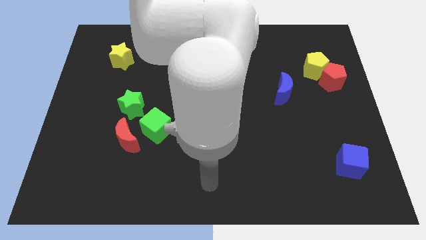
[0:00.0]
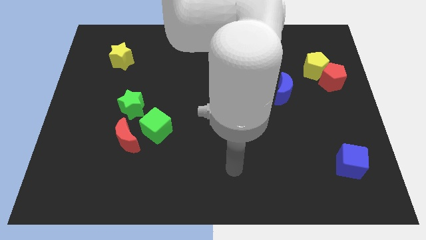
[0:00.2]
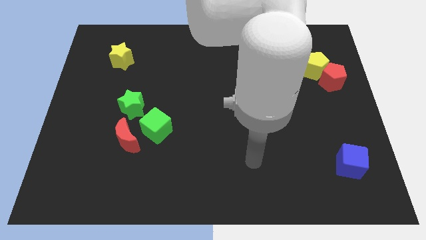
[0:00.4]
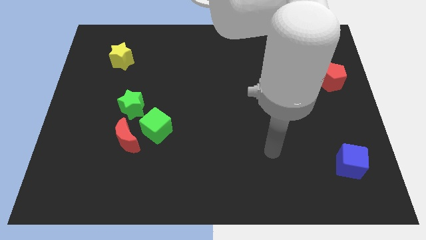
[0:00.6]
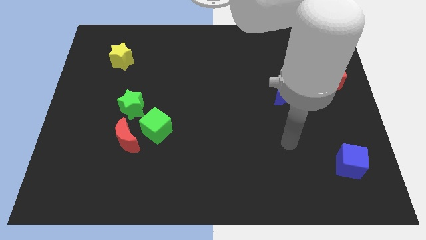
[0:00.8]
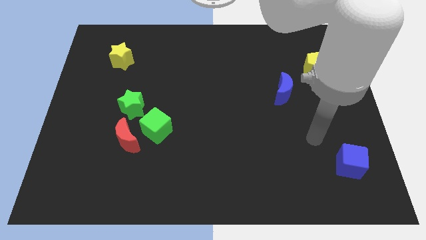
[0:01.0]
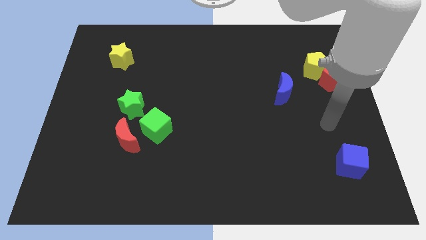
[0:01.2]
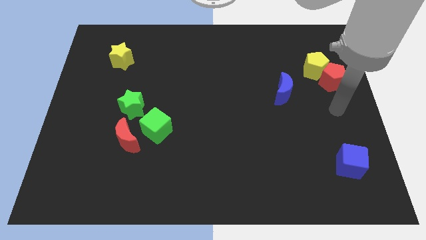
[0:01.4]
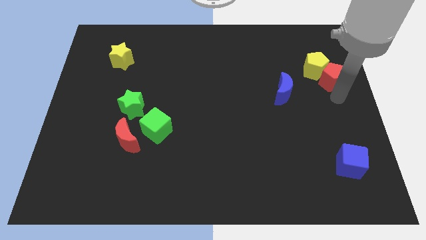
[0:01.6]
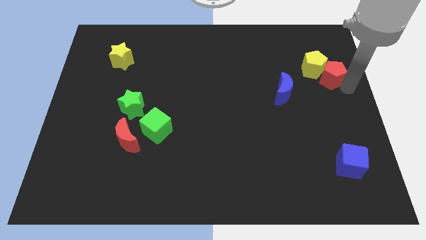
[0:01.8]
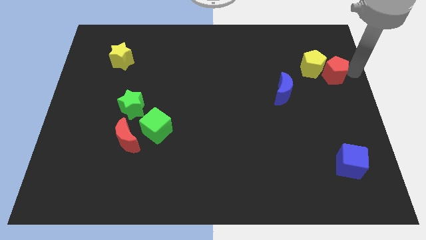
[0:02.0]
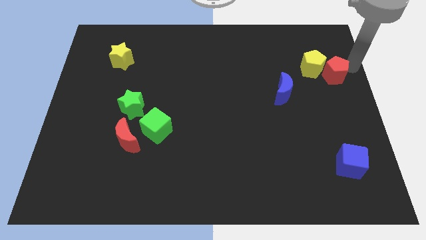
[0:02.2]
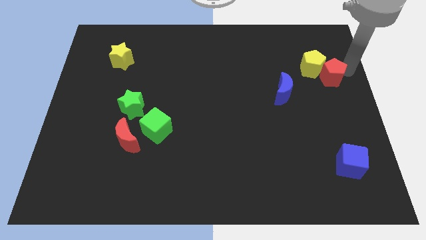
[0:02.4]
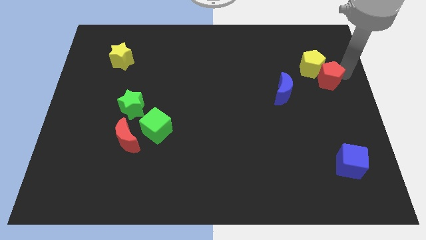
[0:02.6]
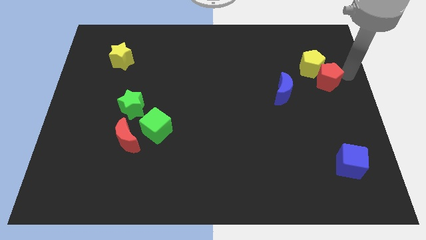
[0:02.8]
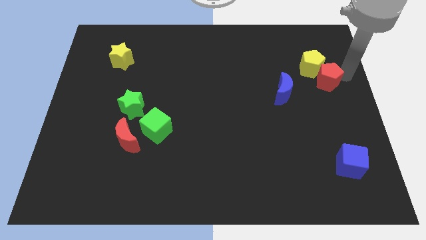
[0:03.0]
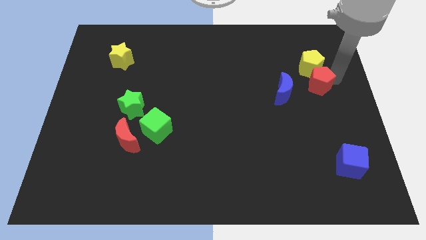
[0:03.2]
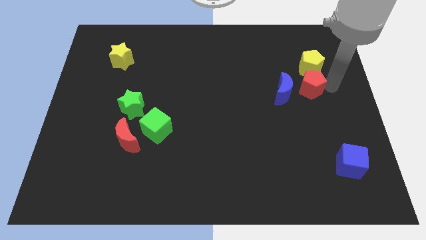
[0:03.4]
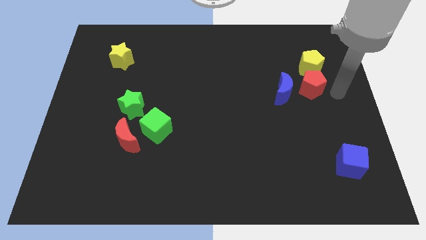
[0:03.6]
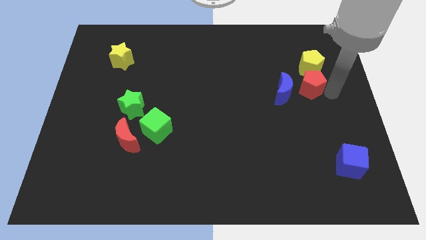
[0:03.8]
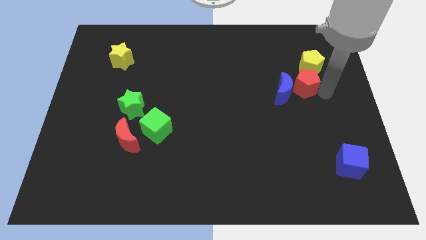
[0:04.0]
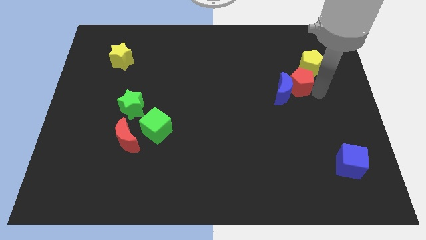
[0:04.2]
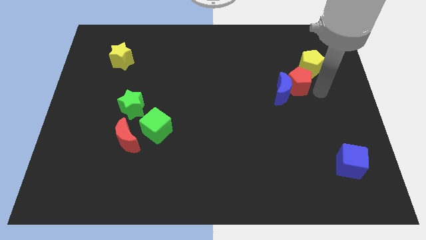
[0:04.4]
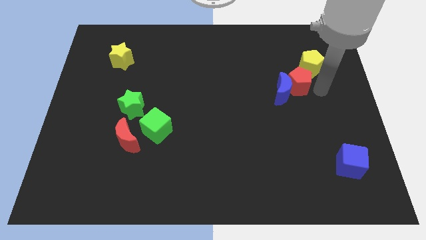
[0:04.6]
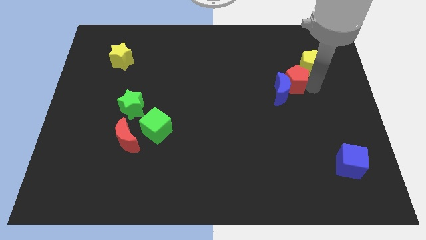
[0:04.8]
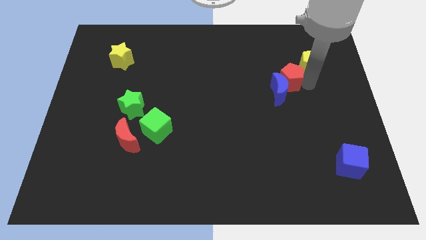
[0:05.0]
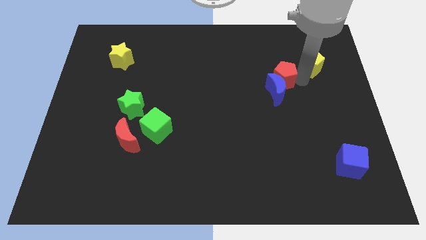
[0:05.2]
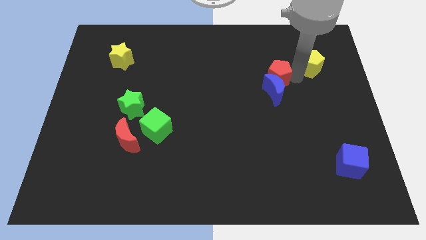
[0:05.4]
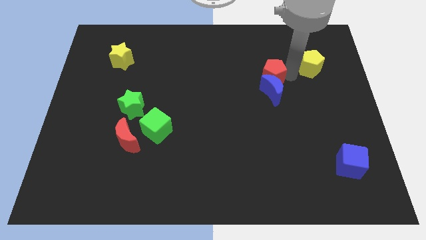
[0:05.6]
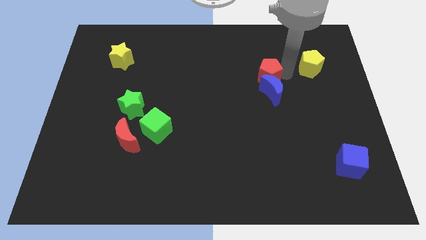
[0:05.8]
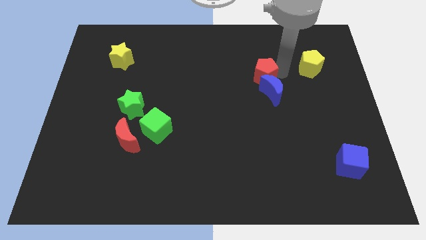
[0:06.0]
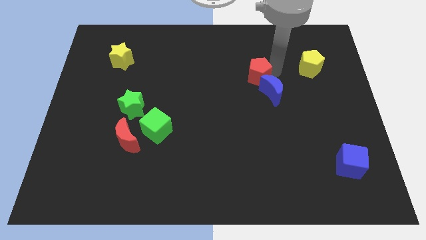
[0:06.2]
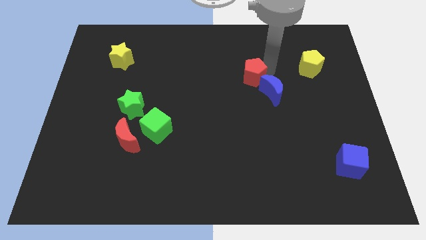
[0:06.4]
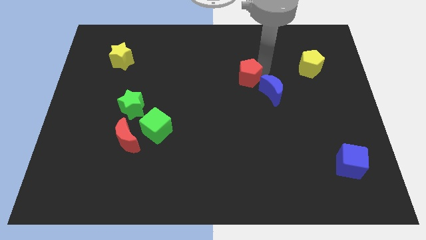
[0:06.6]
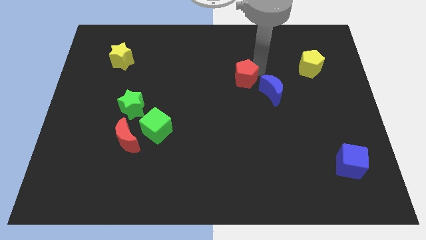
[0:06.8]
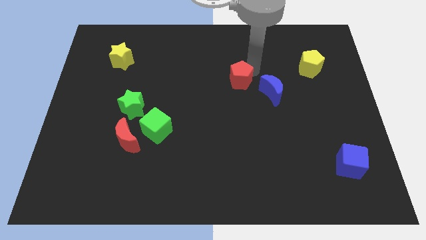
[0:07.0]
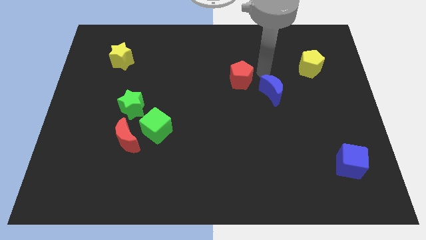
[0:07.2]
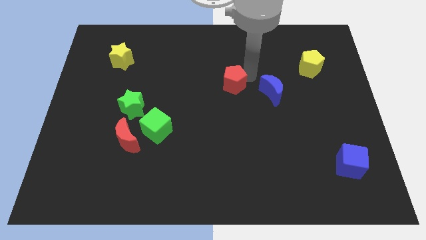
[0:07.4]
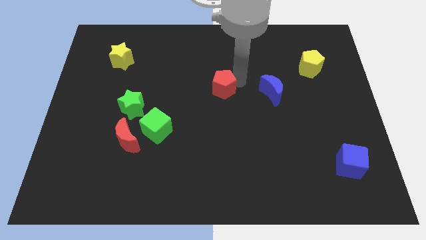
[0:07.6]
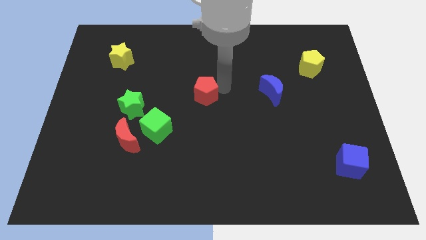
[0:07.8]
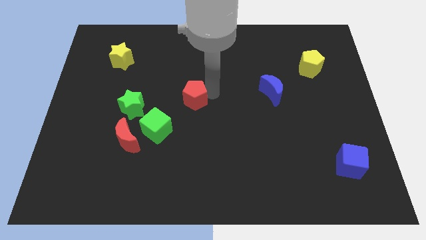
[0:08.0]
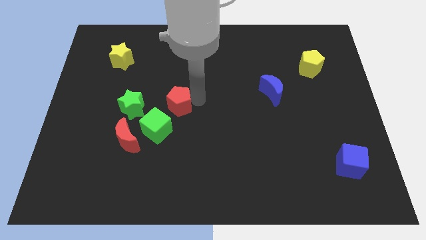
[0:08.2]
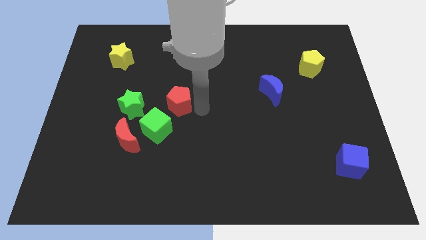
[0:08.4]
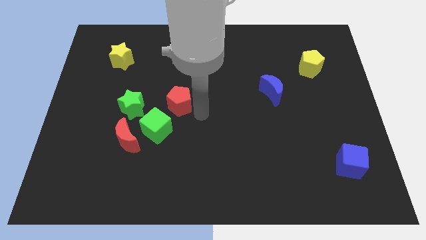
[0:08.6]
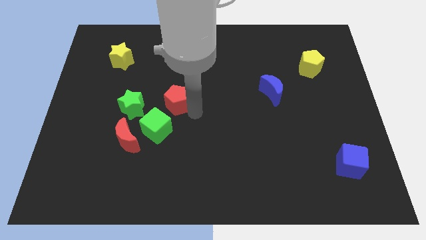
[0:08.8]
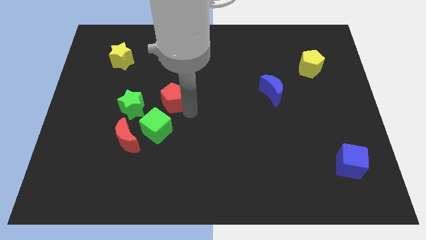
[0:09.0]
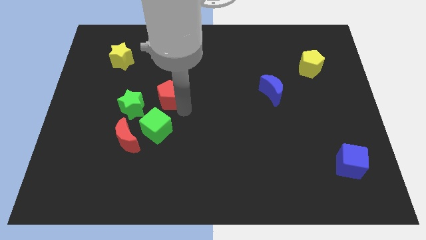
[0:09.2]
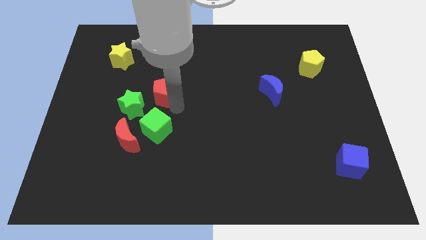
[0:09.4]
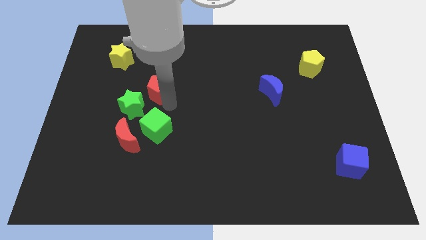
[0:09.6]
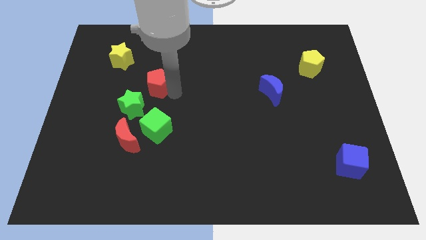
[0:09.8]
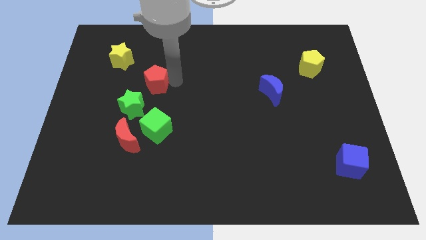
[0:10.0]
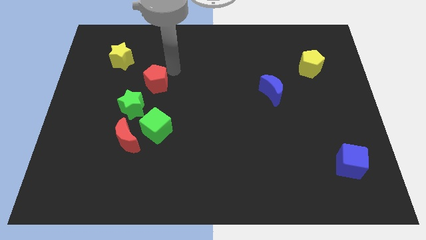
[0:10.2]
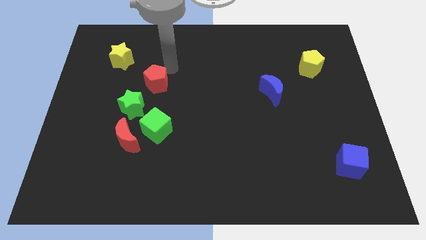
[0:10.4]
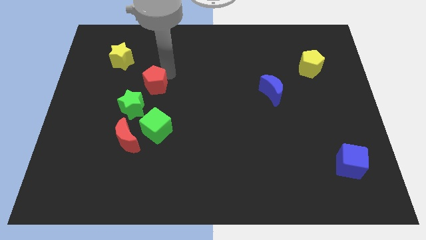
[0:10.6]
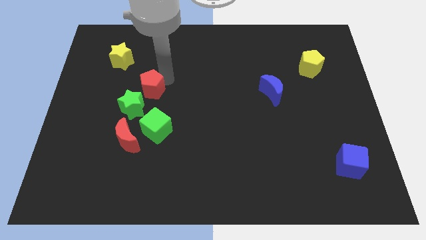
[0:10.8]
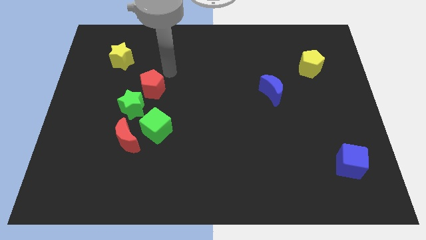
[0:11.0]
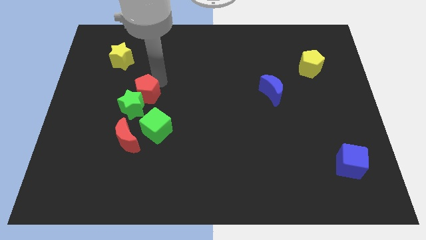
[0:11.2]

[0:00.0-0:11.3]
put the red pentagon towards the green star

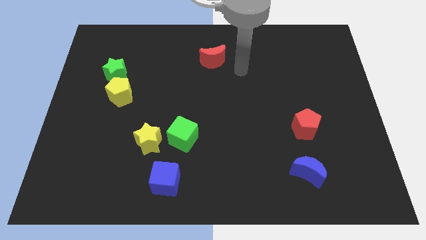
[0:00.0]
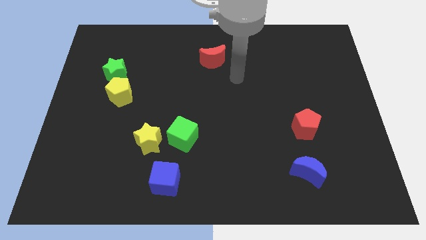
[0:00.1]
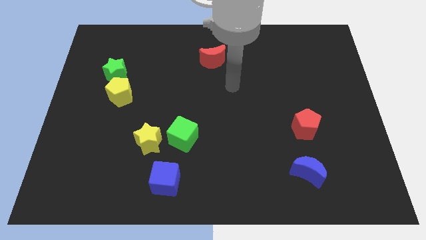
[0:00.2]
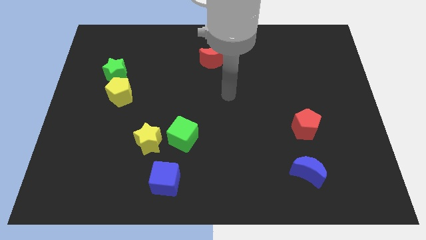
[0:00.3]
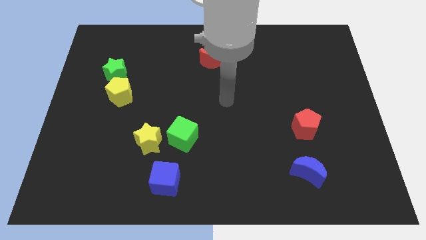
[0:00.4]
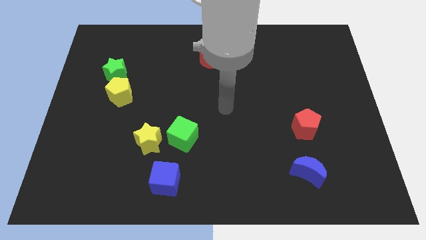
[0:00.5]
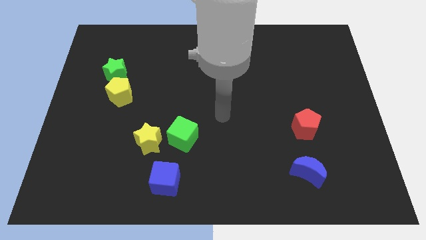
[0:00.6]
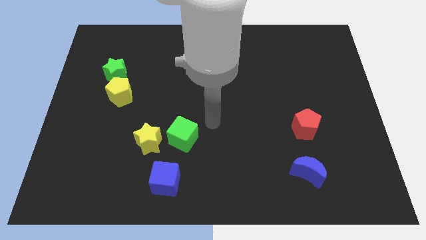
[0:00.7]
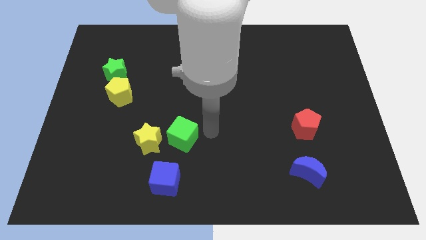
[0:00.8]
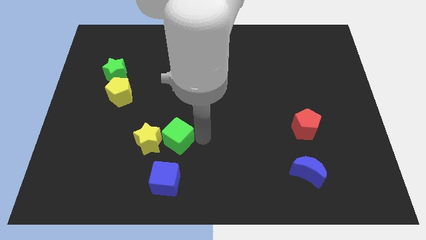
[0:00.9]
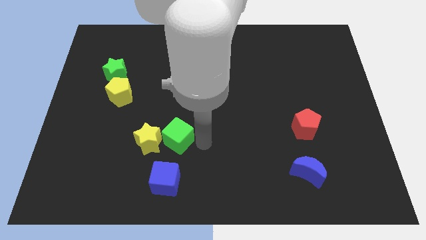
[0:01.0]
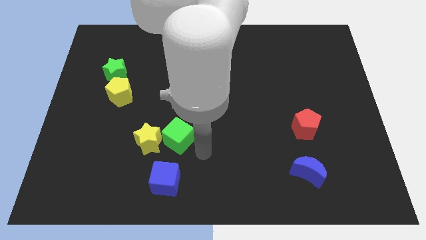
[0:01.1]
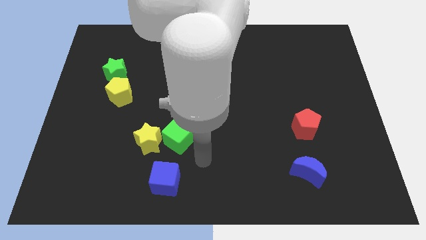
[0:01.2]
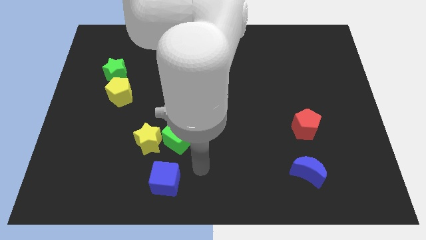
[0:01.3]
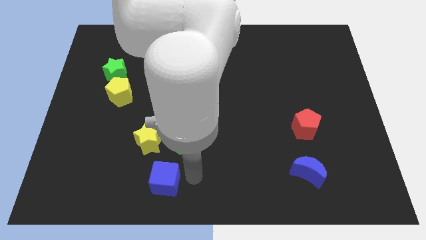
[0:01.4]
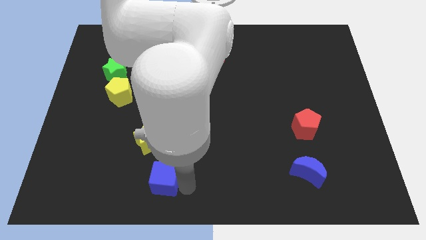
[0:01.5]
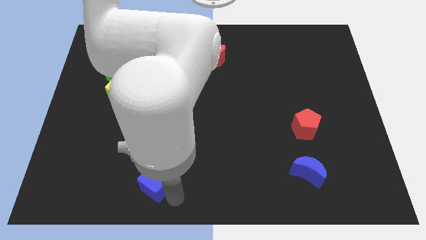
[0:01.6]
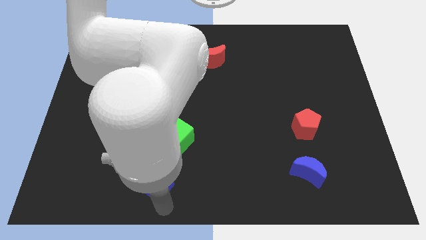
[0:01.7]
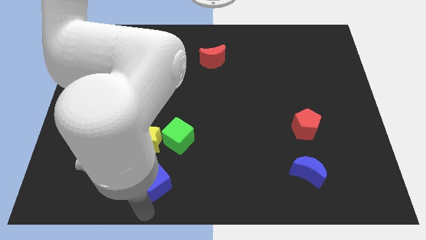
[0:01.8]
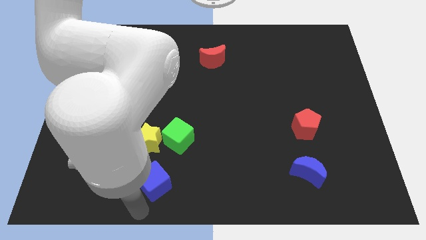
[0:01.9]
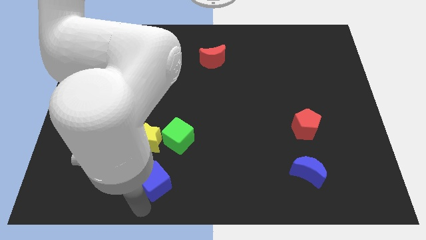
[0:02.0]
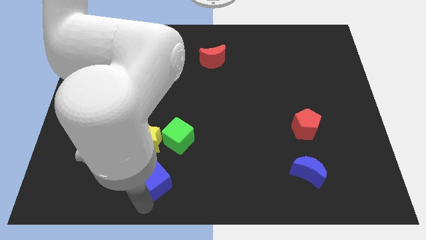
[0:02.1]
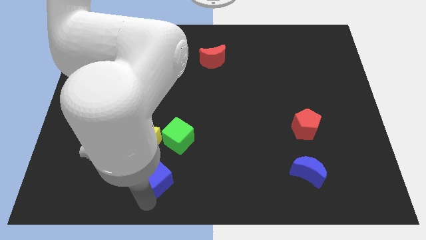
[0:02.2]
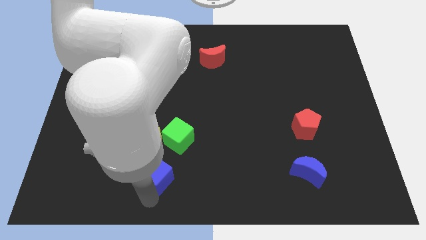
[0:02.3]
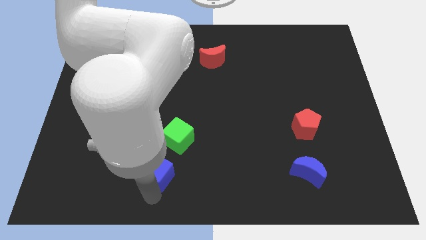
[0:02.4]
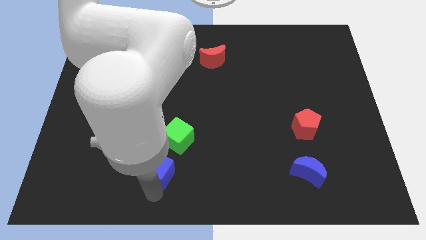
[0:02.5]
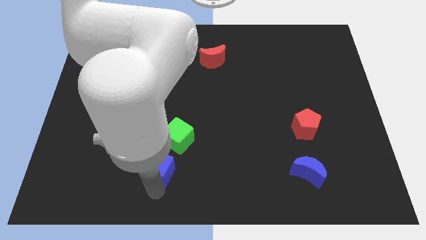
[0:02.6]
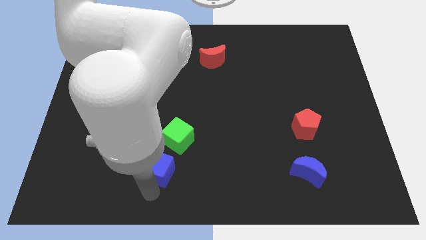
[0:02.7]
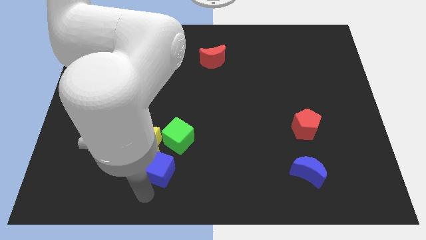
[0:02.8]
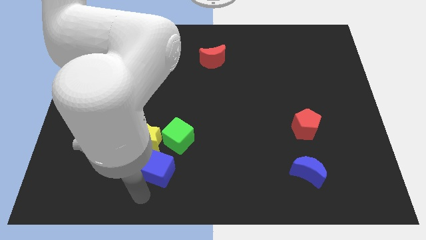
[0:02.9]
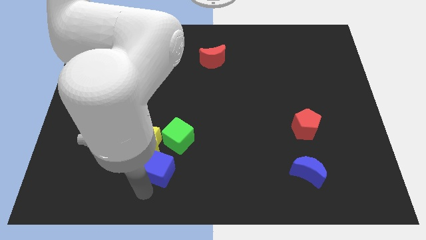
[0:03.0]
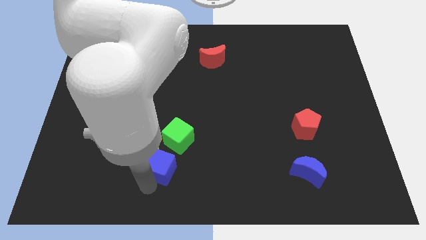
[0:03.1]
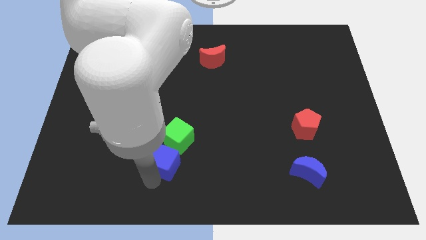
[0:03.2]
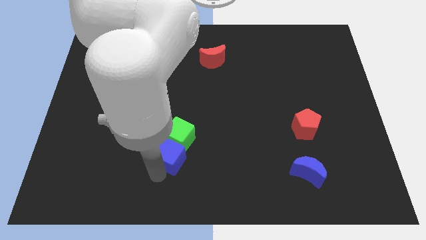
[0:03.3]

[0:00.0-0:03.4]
move the blue cube to the green cube
